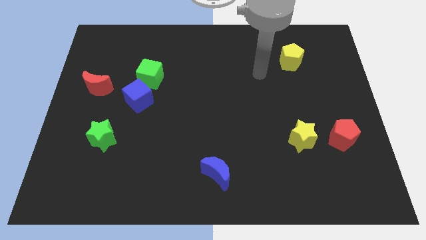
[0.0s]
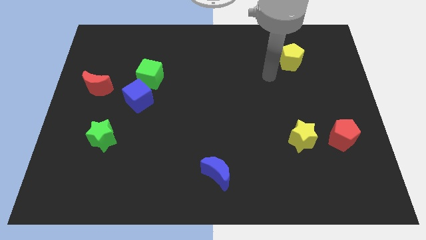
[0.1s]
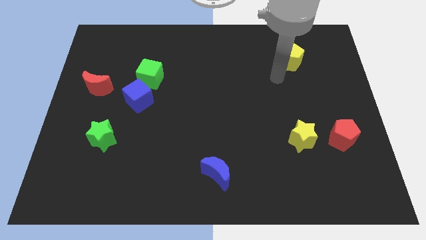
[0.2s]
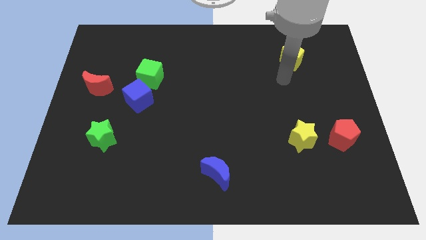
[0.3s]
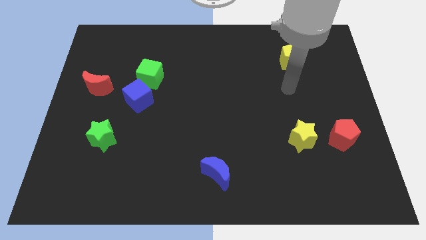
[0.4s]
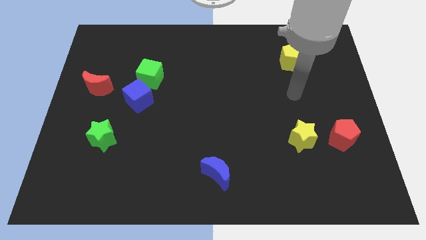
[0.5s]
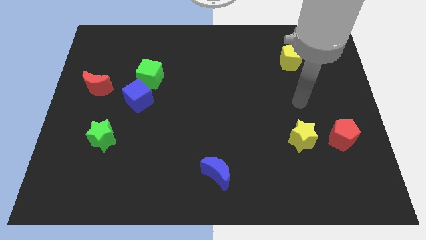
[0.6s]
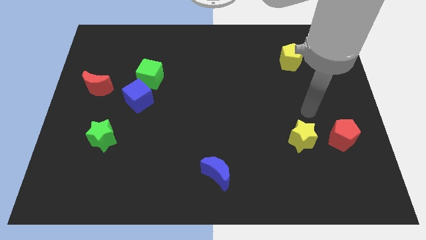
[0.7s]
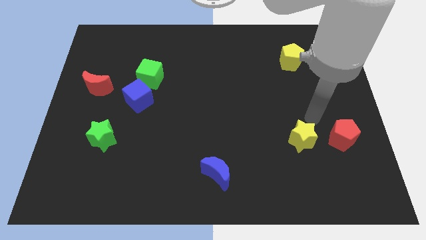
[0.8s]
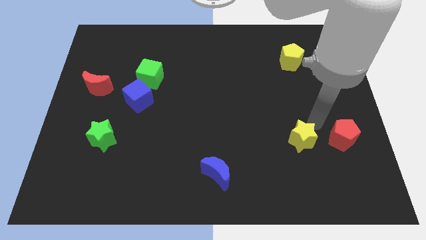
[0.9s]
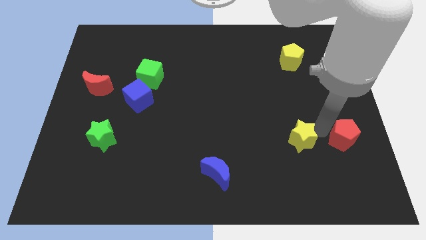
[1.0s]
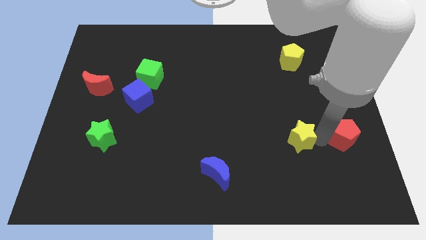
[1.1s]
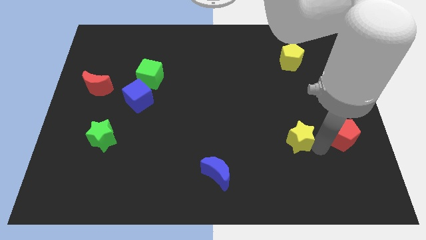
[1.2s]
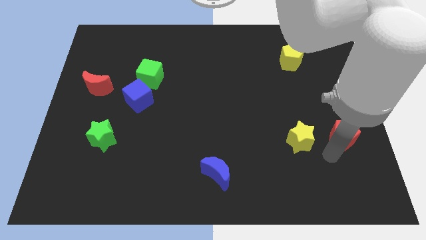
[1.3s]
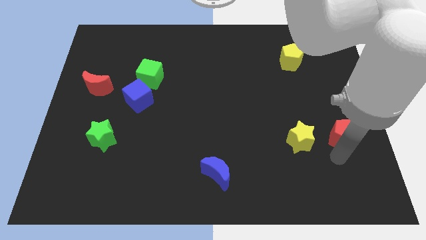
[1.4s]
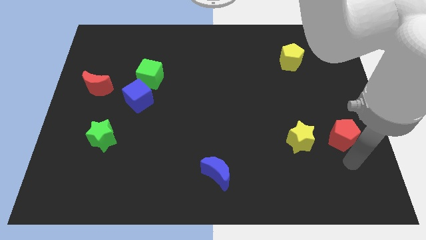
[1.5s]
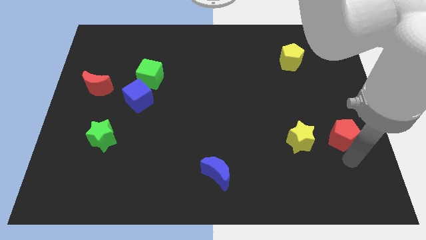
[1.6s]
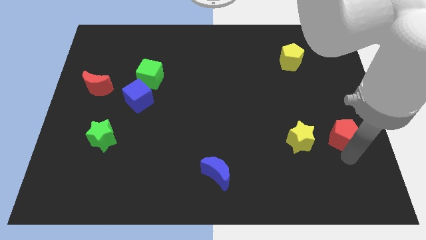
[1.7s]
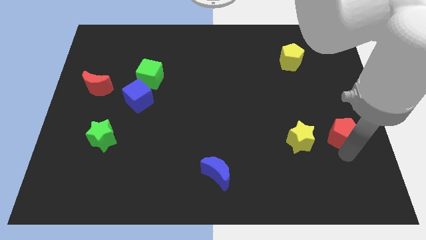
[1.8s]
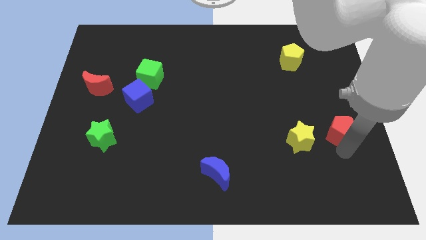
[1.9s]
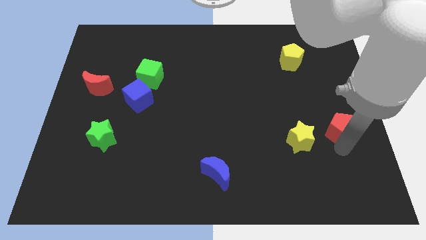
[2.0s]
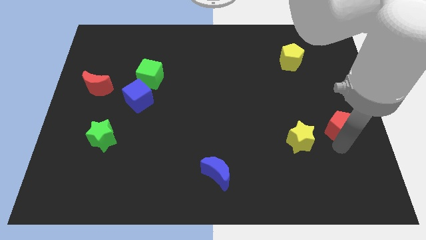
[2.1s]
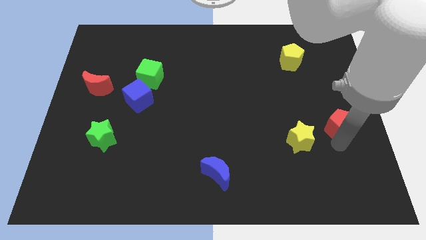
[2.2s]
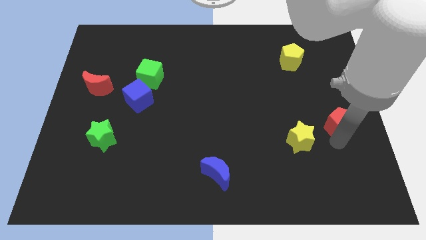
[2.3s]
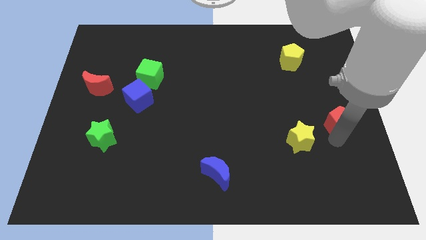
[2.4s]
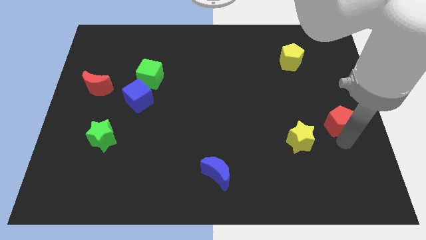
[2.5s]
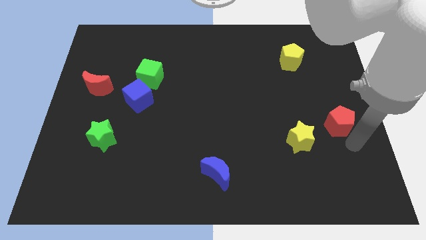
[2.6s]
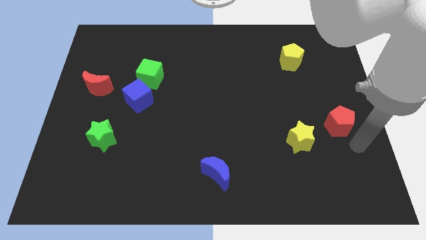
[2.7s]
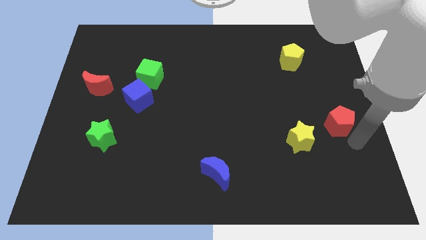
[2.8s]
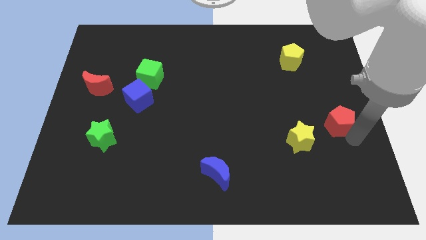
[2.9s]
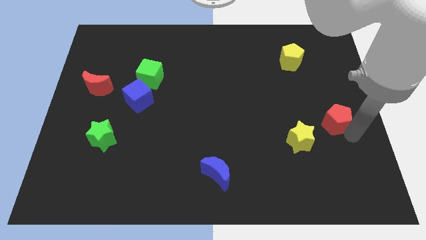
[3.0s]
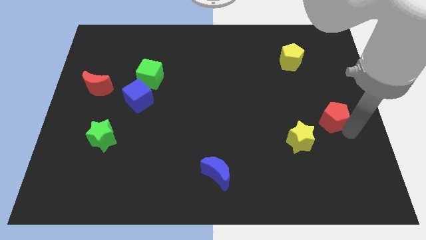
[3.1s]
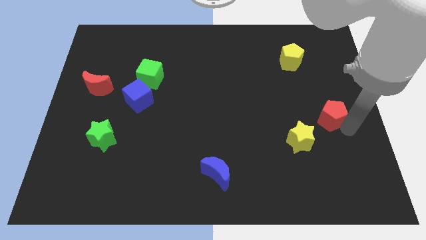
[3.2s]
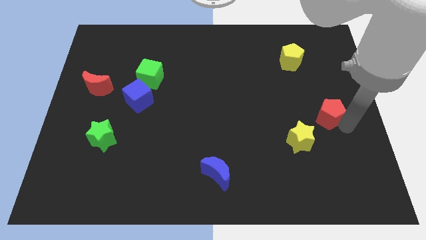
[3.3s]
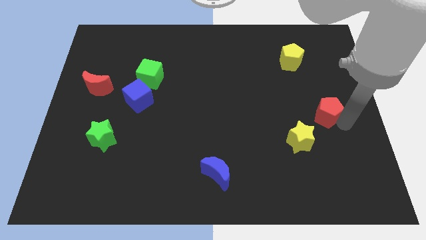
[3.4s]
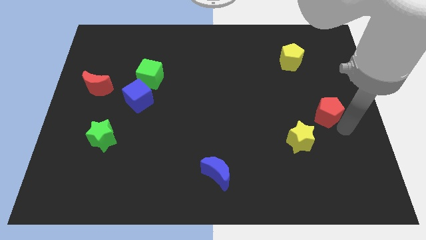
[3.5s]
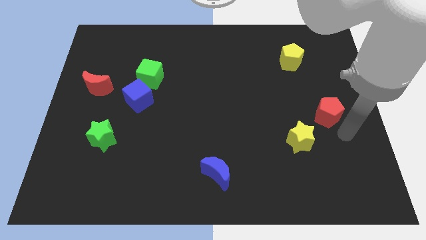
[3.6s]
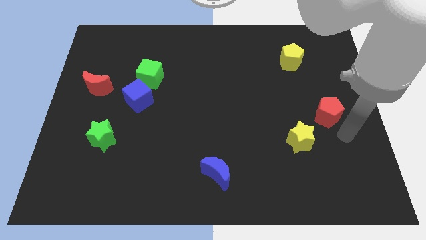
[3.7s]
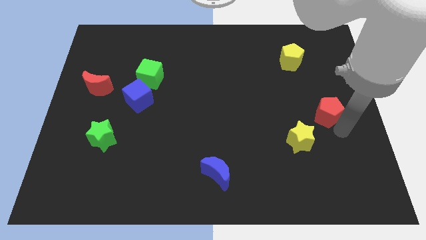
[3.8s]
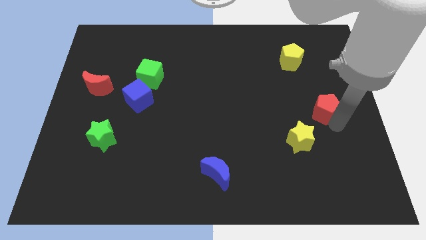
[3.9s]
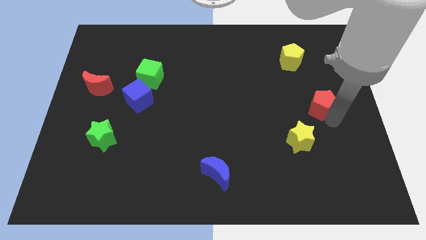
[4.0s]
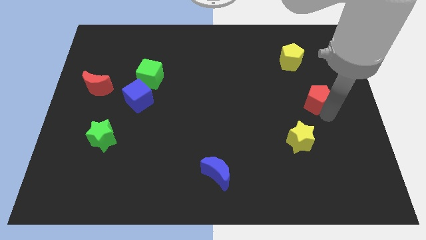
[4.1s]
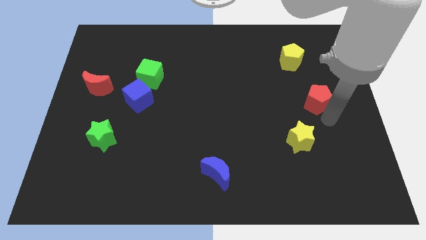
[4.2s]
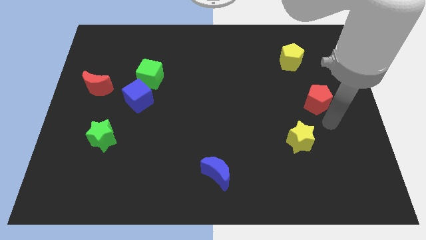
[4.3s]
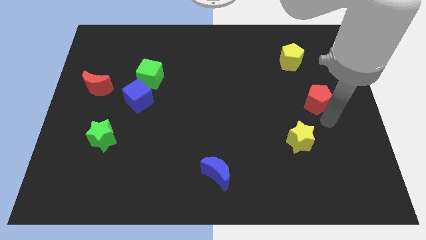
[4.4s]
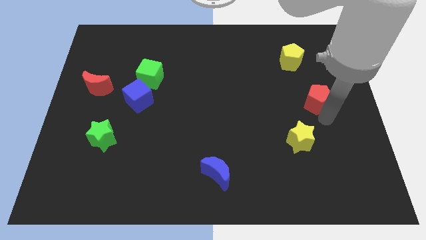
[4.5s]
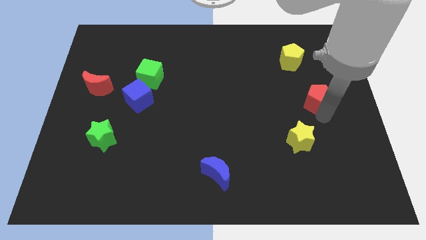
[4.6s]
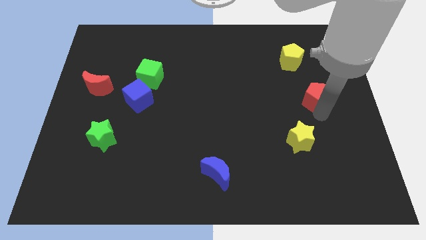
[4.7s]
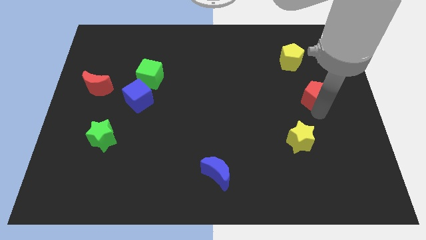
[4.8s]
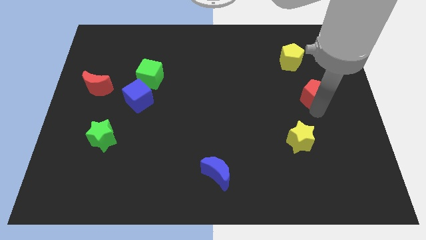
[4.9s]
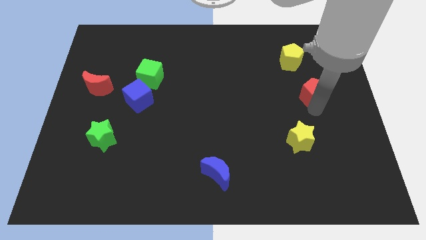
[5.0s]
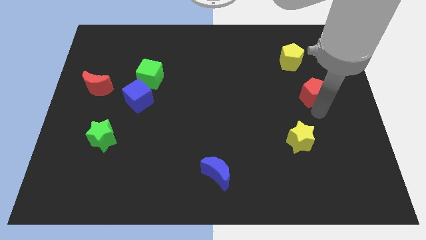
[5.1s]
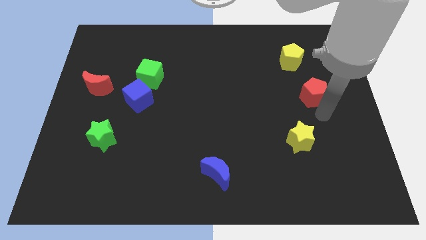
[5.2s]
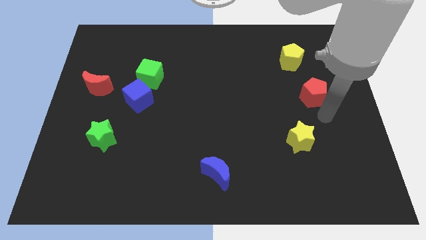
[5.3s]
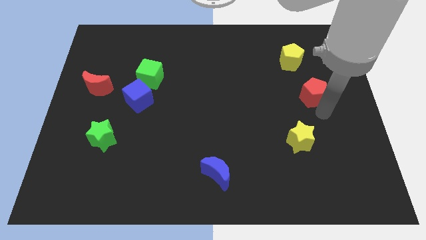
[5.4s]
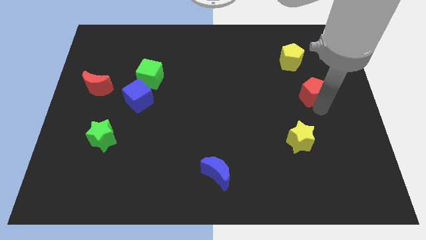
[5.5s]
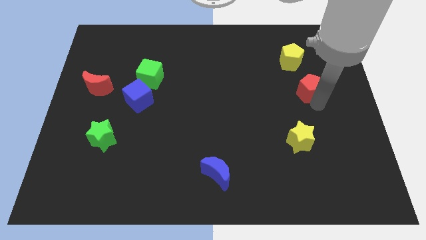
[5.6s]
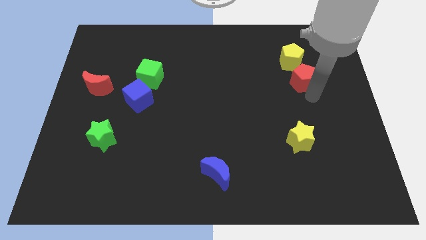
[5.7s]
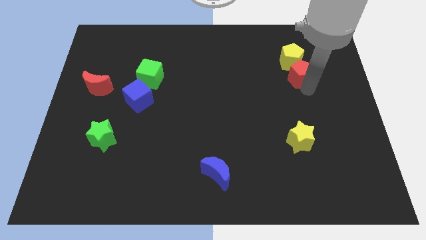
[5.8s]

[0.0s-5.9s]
move the red pentagon towards the yellow pentagon

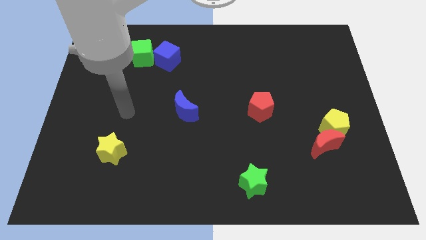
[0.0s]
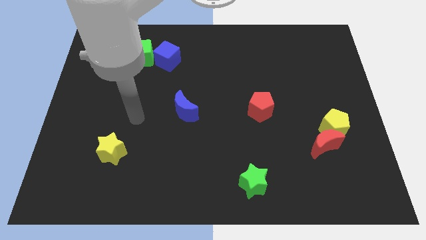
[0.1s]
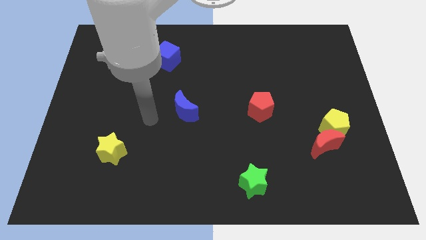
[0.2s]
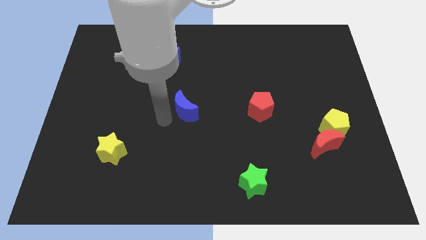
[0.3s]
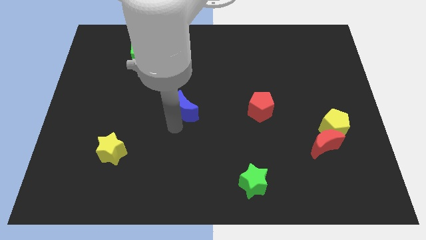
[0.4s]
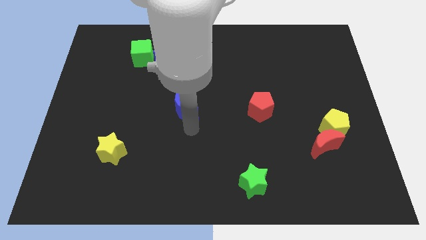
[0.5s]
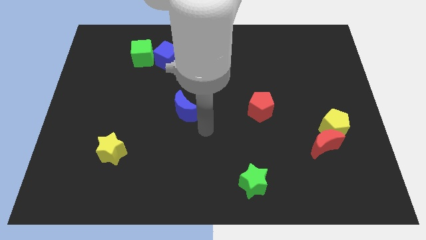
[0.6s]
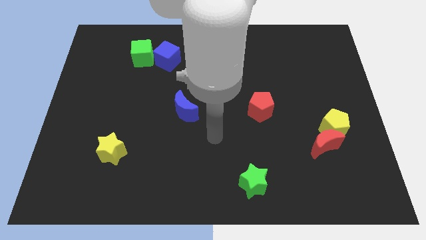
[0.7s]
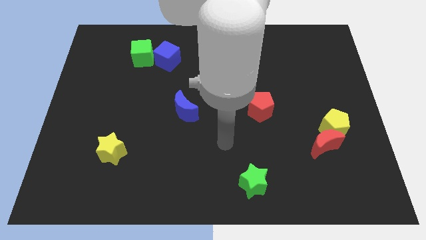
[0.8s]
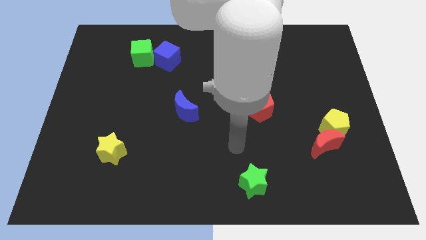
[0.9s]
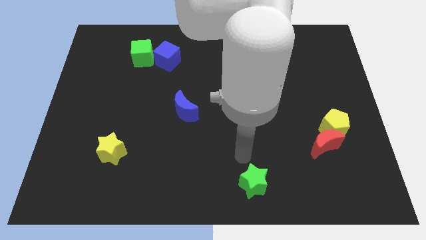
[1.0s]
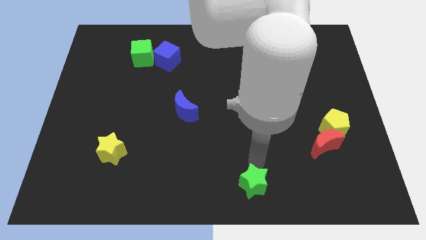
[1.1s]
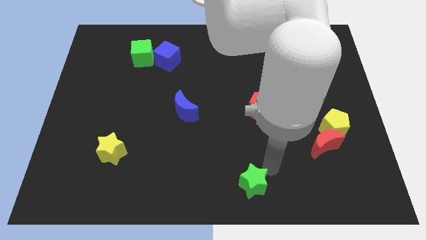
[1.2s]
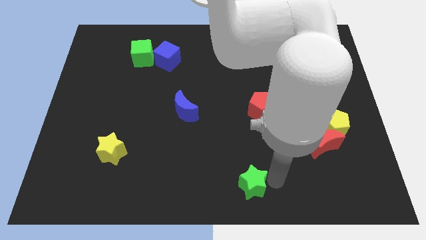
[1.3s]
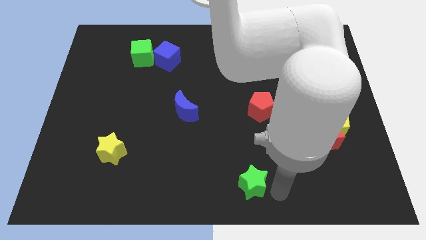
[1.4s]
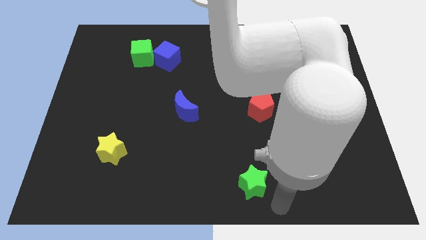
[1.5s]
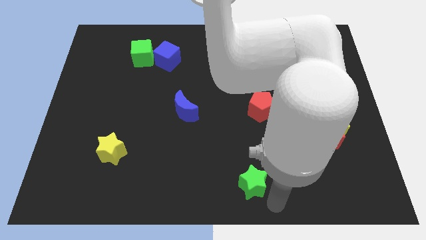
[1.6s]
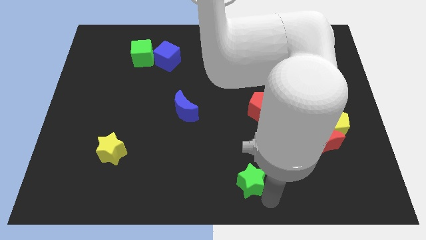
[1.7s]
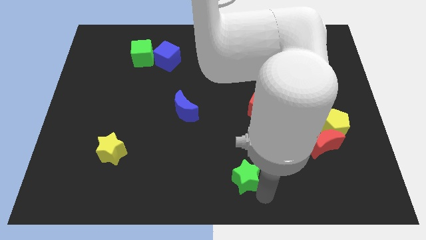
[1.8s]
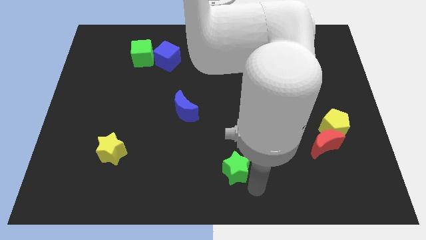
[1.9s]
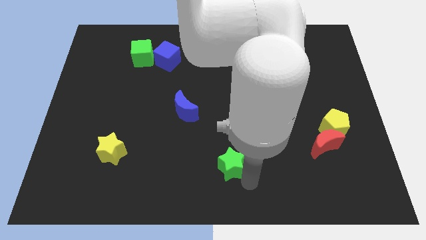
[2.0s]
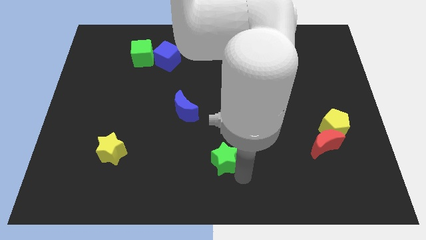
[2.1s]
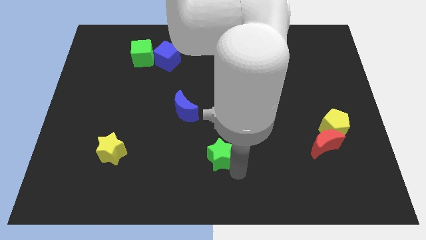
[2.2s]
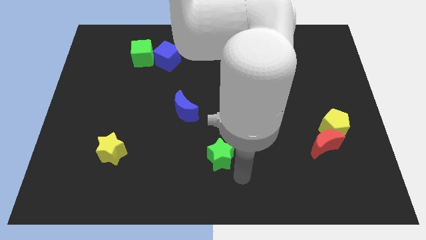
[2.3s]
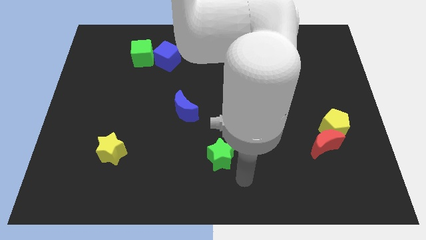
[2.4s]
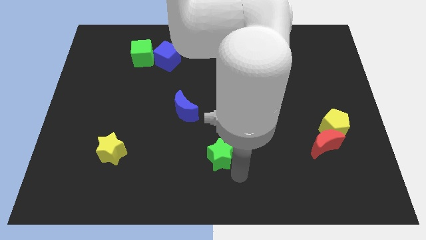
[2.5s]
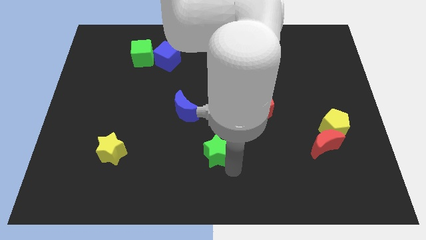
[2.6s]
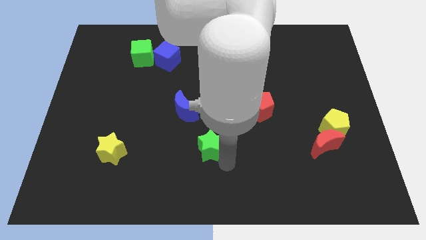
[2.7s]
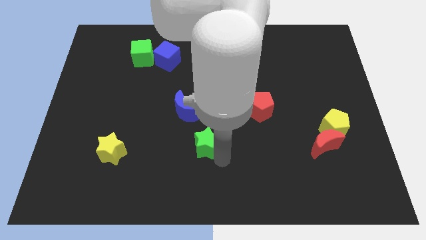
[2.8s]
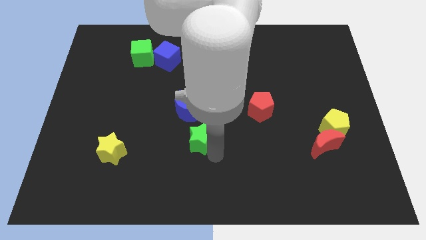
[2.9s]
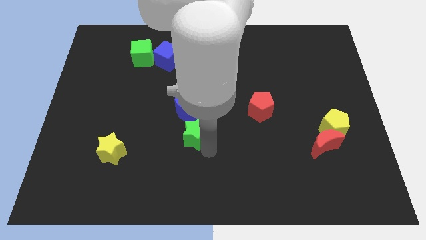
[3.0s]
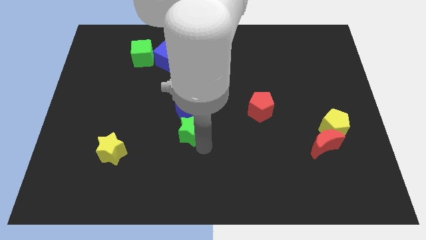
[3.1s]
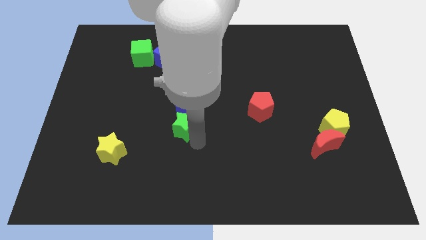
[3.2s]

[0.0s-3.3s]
push the green star close to the blue moon
